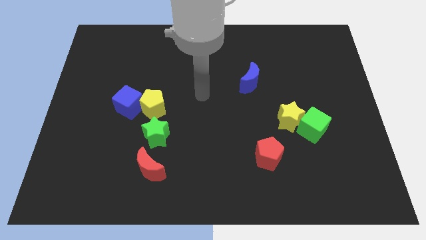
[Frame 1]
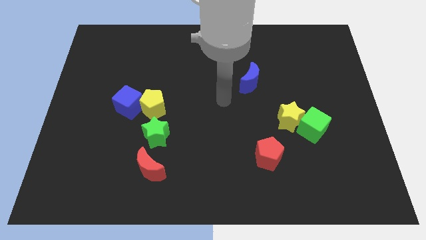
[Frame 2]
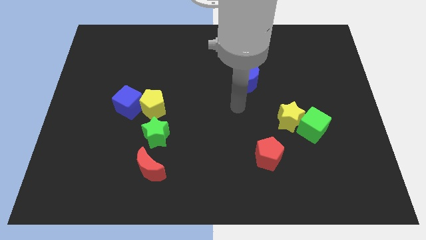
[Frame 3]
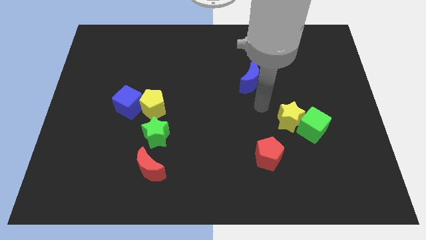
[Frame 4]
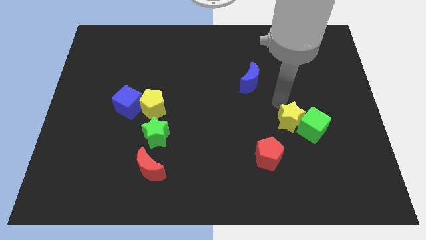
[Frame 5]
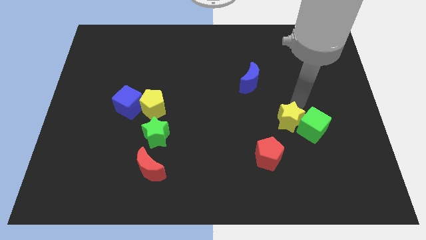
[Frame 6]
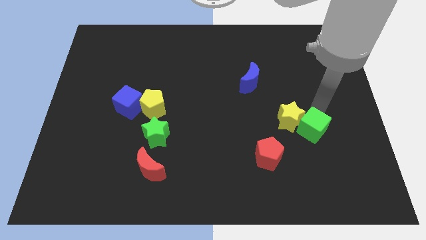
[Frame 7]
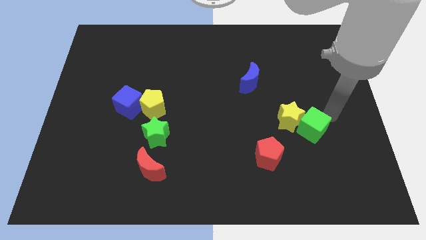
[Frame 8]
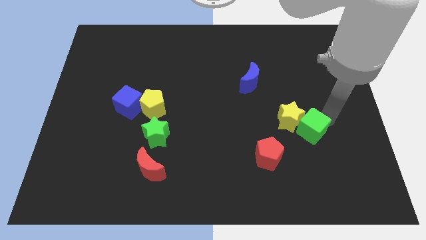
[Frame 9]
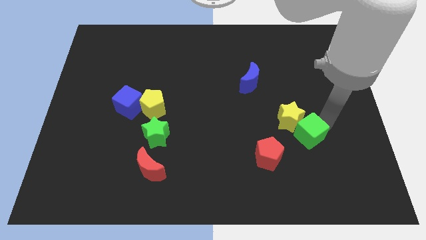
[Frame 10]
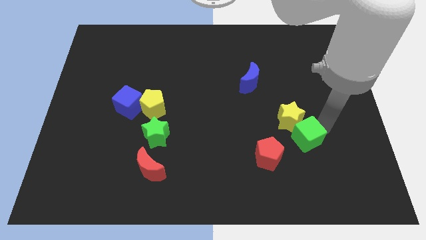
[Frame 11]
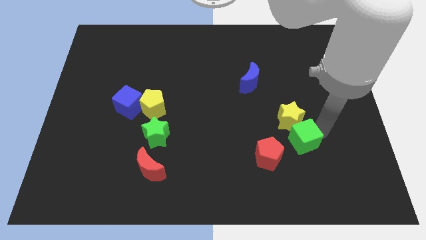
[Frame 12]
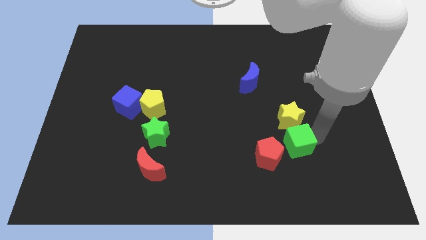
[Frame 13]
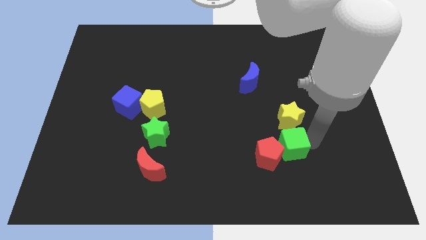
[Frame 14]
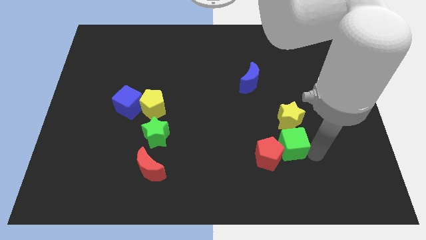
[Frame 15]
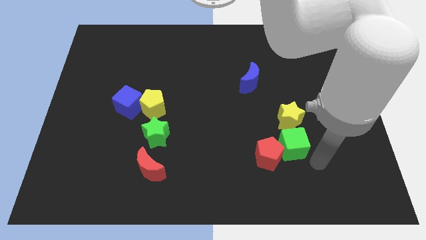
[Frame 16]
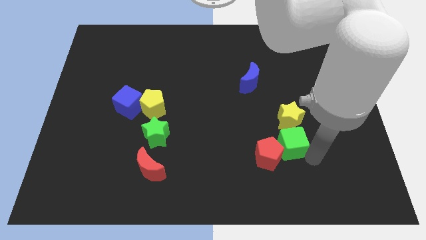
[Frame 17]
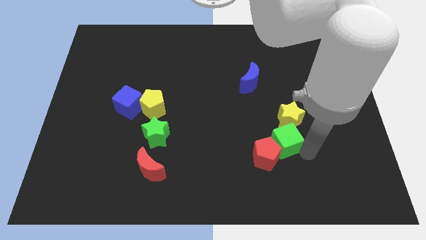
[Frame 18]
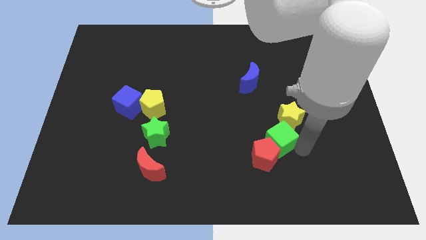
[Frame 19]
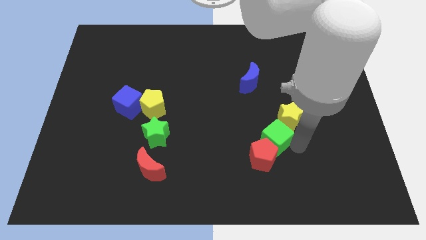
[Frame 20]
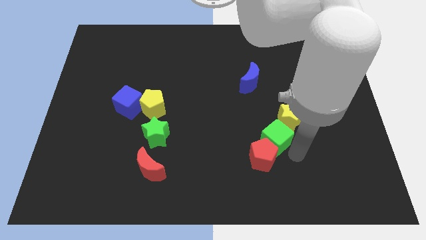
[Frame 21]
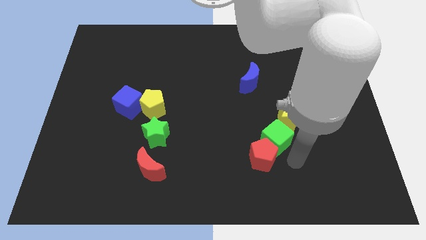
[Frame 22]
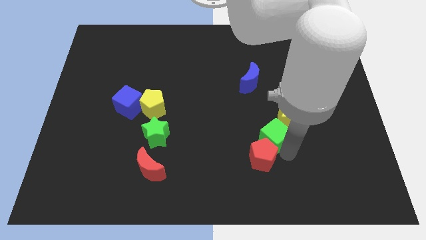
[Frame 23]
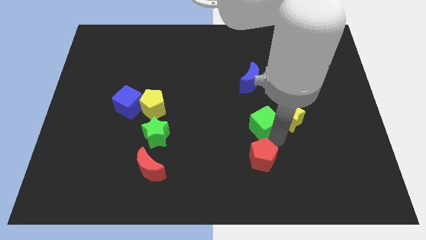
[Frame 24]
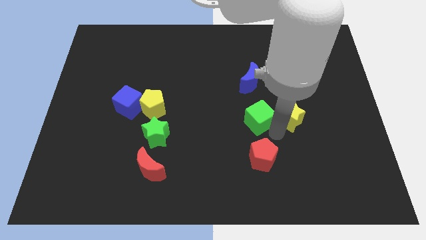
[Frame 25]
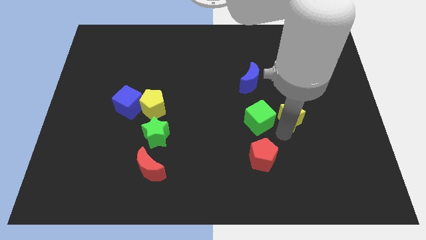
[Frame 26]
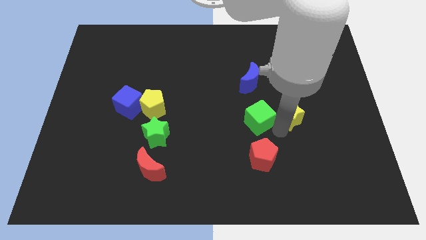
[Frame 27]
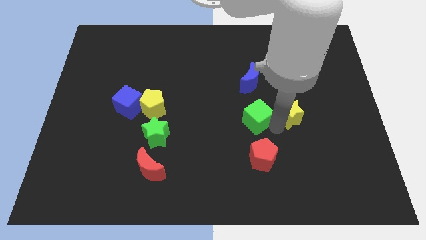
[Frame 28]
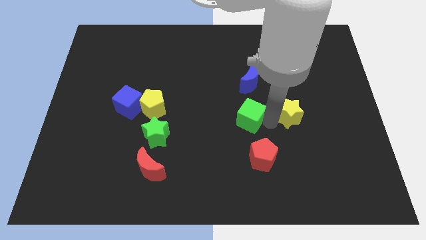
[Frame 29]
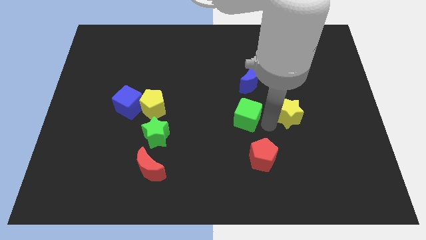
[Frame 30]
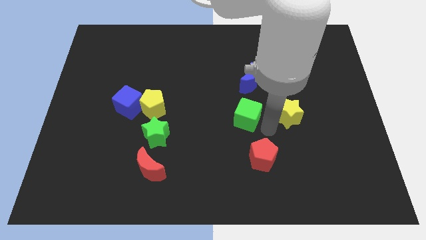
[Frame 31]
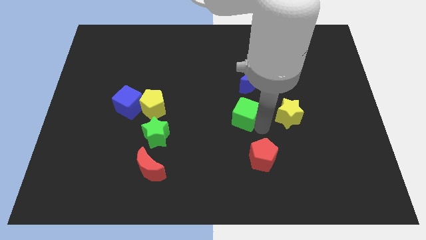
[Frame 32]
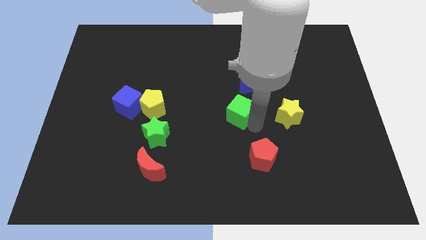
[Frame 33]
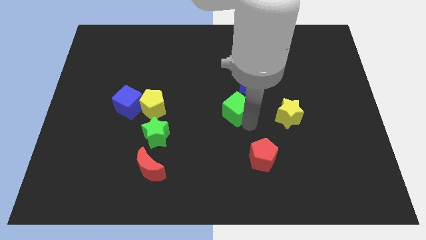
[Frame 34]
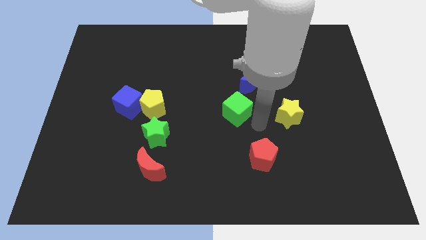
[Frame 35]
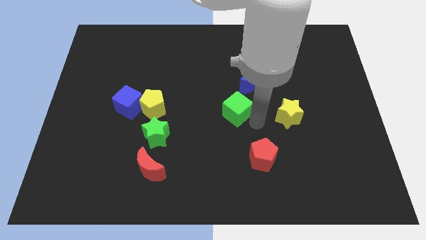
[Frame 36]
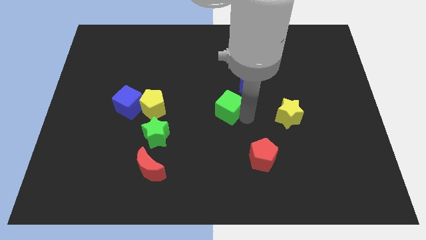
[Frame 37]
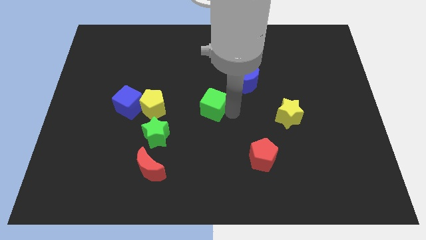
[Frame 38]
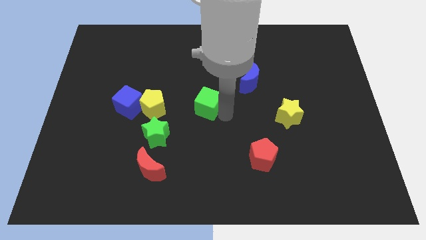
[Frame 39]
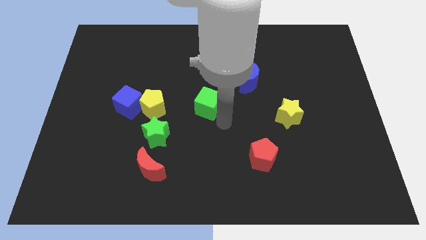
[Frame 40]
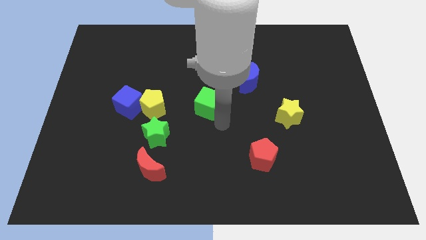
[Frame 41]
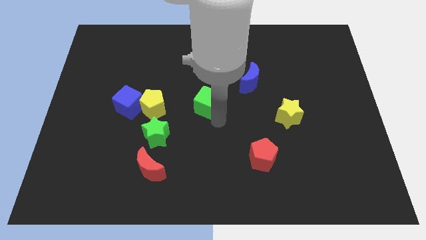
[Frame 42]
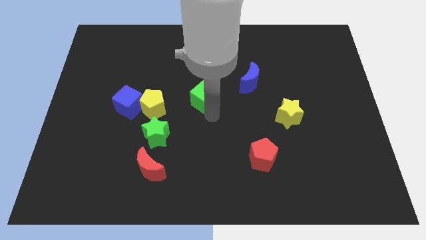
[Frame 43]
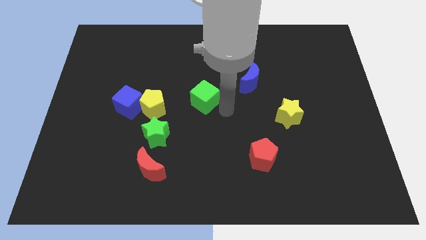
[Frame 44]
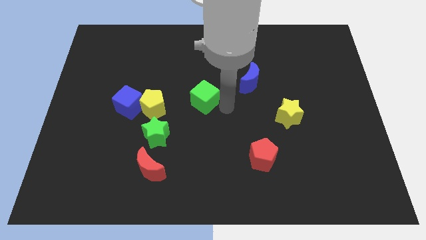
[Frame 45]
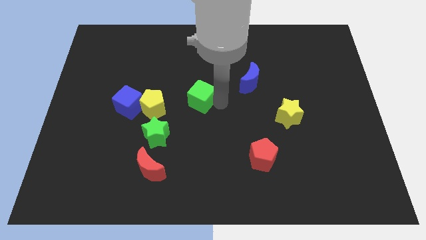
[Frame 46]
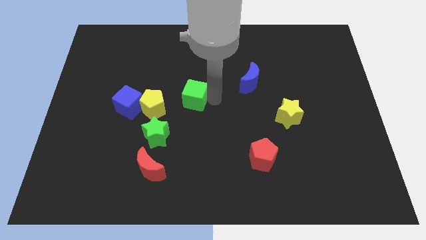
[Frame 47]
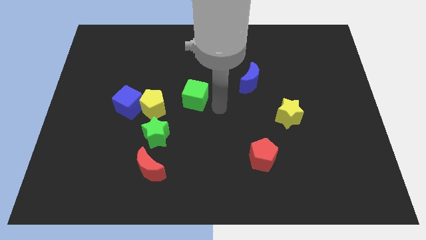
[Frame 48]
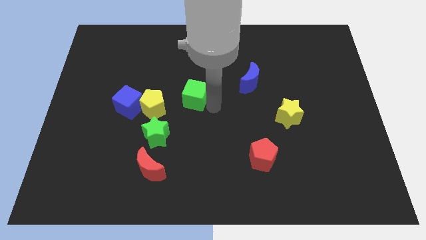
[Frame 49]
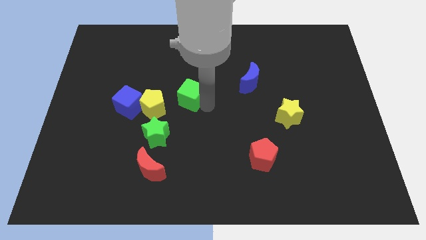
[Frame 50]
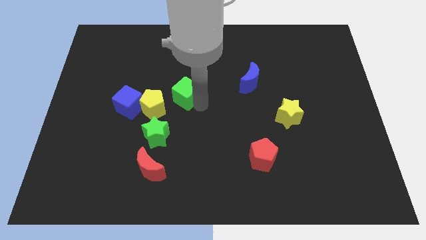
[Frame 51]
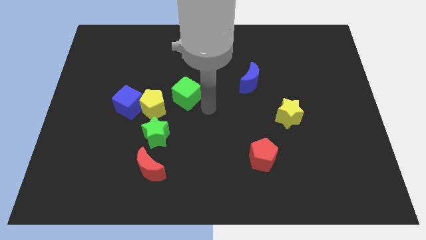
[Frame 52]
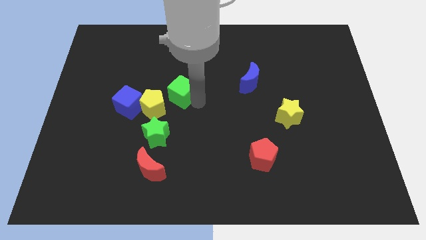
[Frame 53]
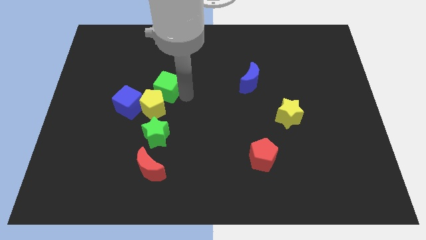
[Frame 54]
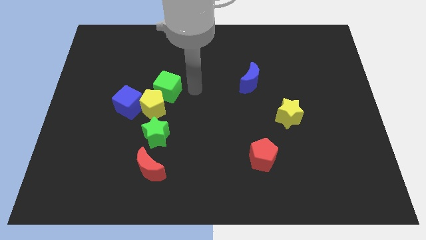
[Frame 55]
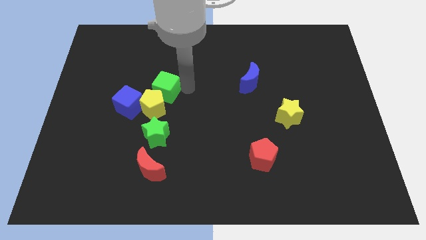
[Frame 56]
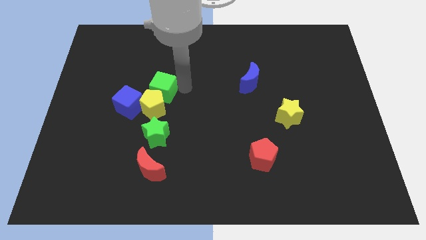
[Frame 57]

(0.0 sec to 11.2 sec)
put the green cube to the top left side of the yellow pentagon
